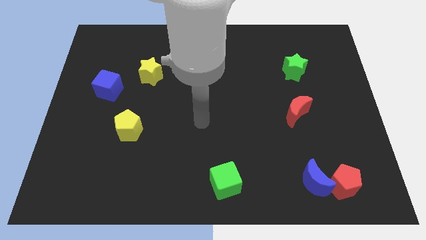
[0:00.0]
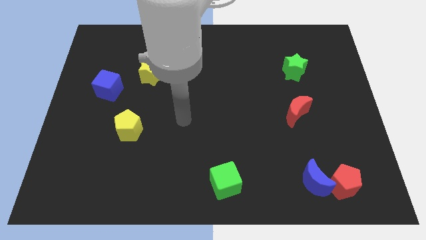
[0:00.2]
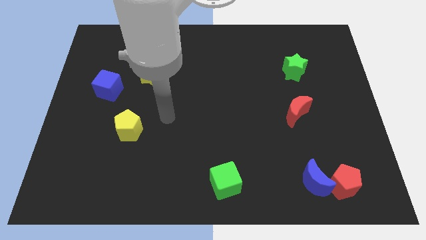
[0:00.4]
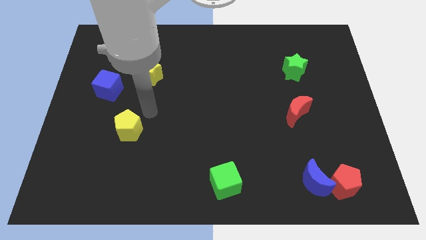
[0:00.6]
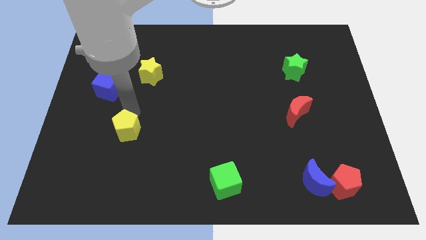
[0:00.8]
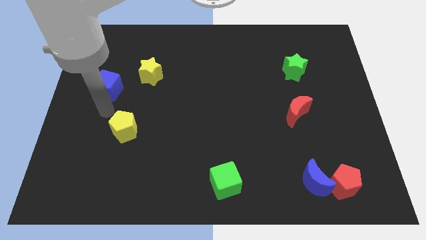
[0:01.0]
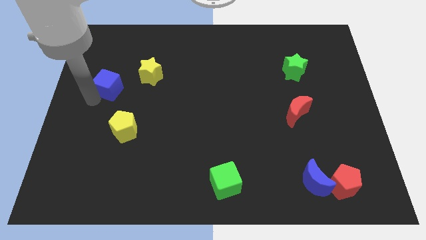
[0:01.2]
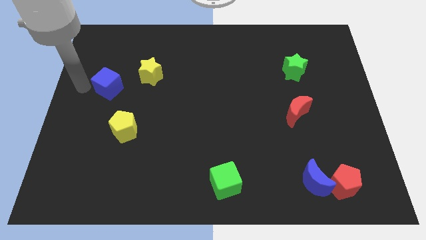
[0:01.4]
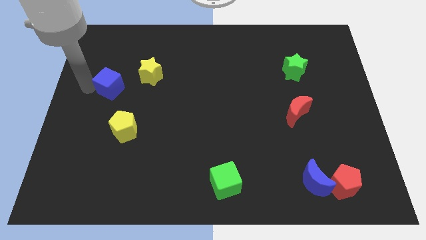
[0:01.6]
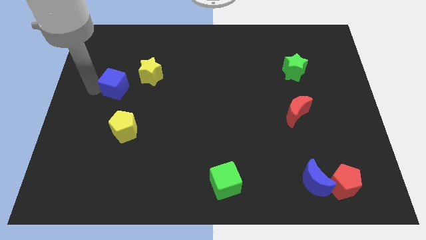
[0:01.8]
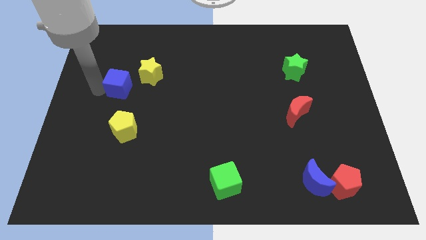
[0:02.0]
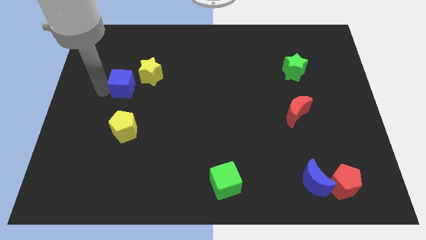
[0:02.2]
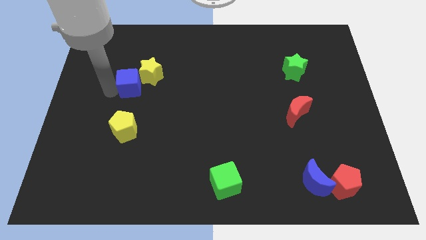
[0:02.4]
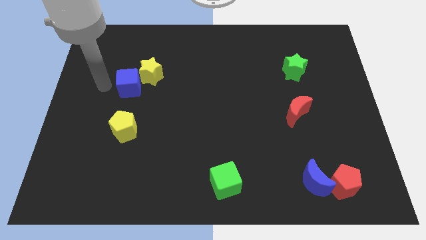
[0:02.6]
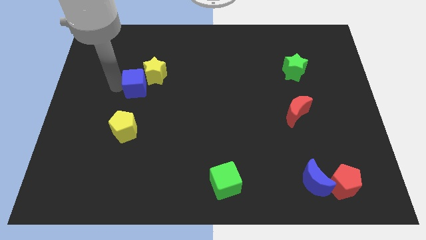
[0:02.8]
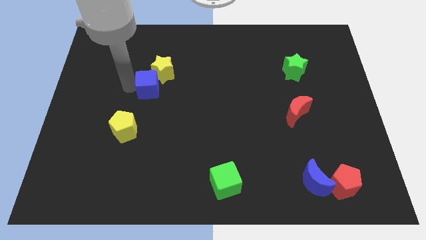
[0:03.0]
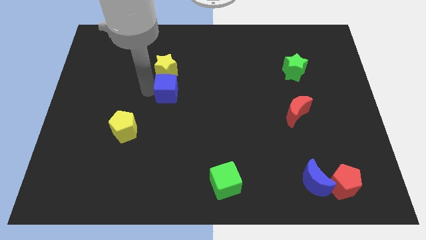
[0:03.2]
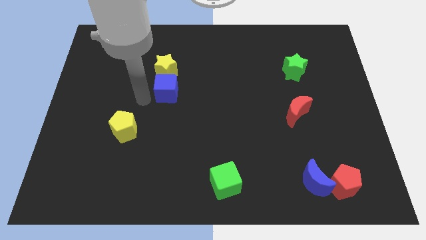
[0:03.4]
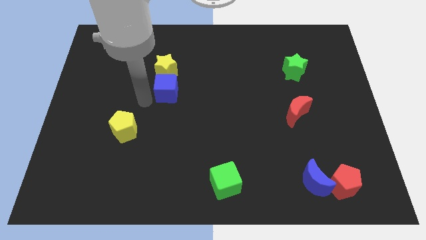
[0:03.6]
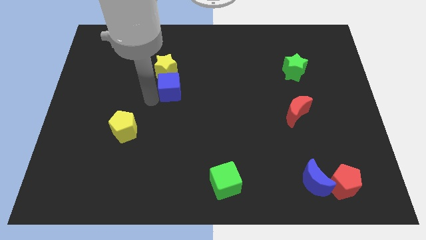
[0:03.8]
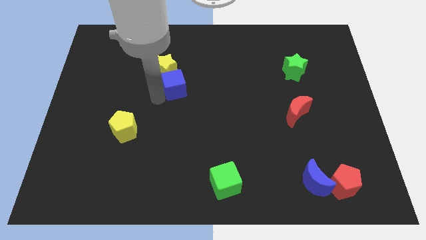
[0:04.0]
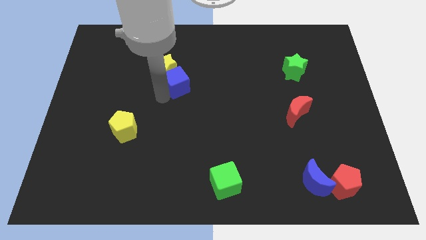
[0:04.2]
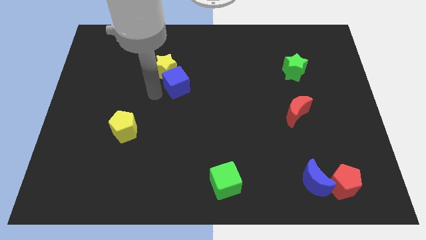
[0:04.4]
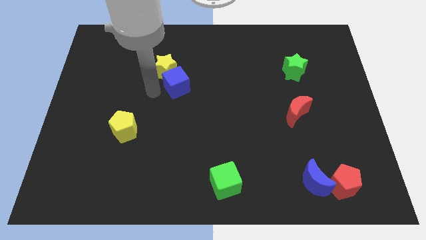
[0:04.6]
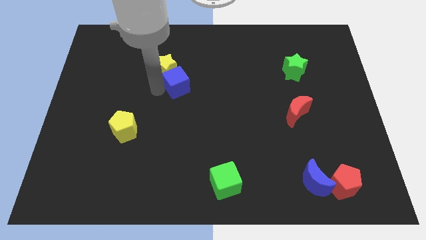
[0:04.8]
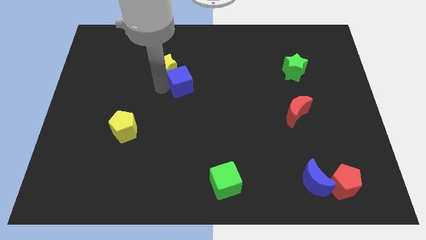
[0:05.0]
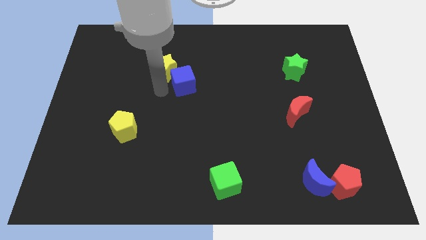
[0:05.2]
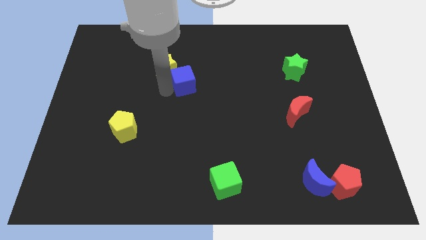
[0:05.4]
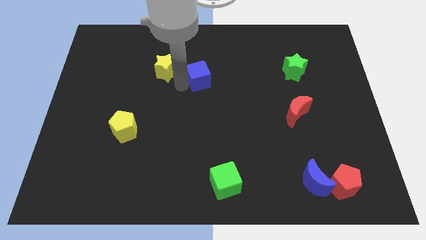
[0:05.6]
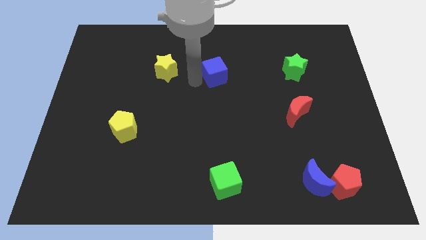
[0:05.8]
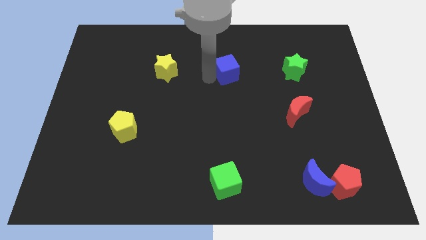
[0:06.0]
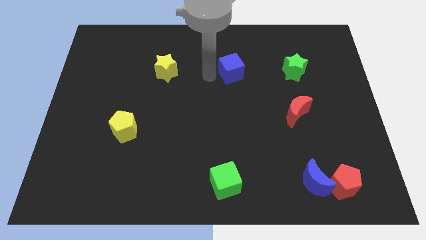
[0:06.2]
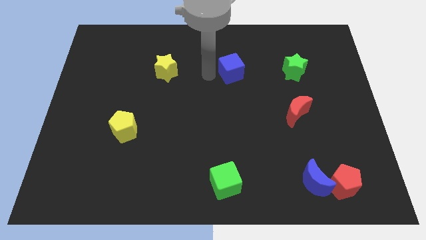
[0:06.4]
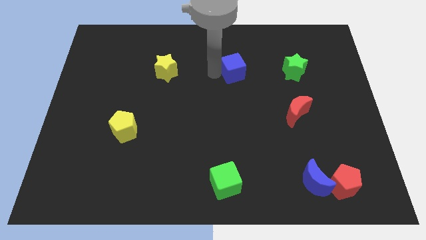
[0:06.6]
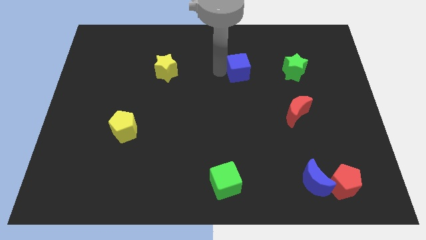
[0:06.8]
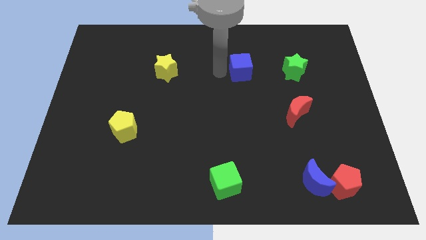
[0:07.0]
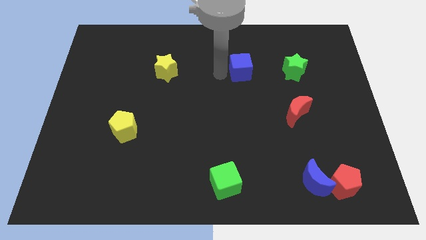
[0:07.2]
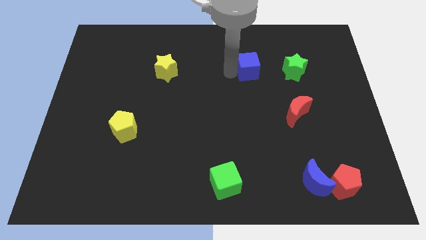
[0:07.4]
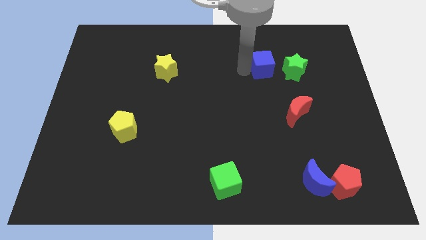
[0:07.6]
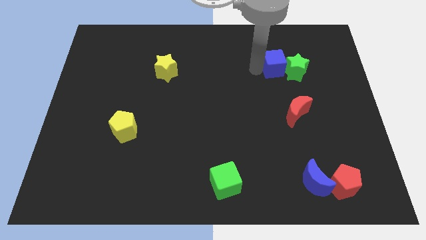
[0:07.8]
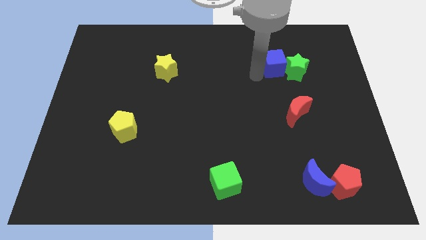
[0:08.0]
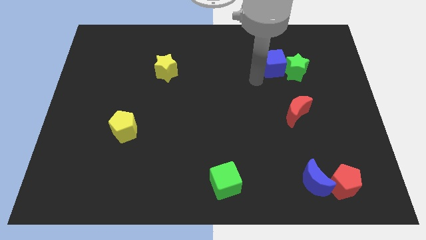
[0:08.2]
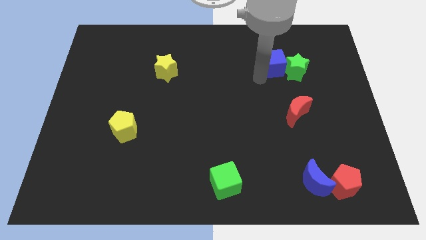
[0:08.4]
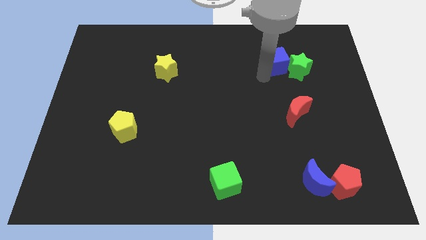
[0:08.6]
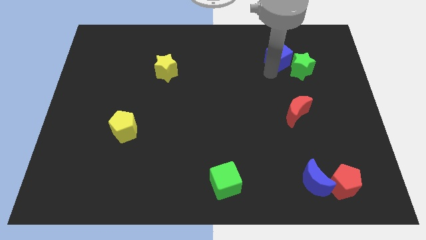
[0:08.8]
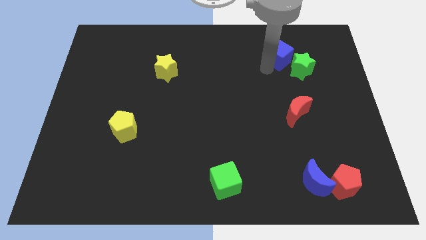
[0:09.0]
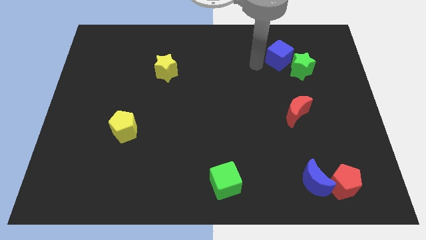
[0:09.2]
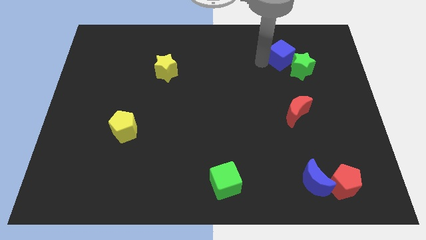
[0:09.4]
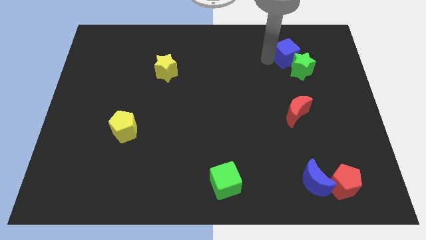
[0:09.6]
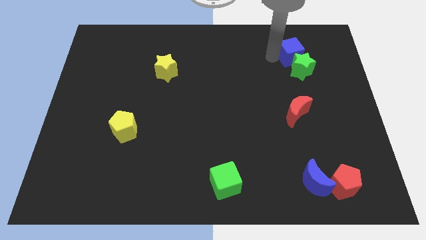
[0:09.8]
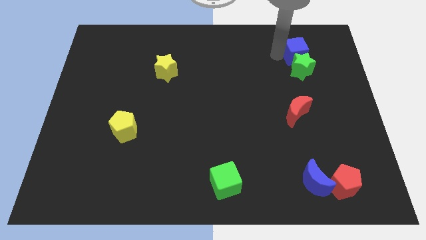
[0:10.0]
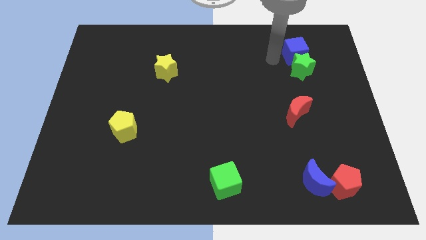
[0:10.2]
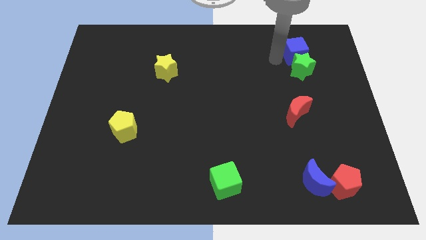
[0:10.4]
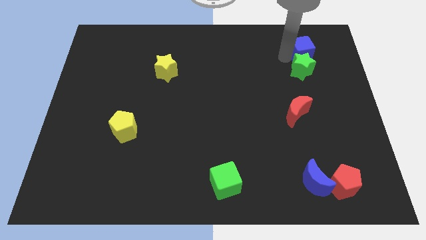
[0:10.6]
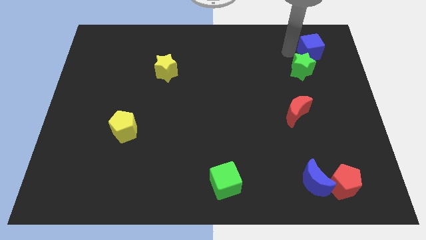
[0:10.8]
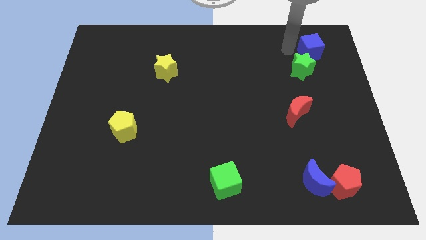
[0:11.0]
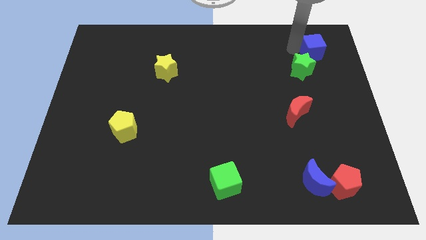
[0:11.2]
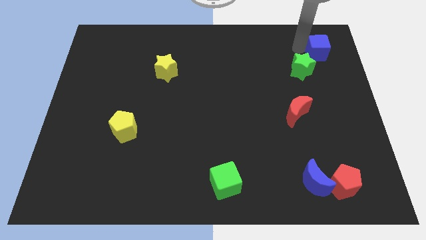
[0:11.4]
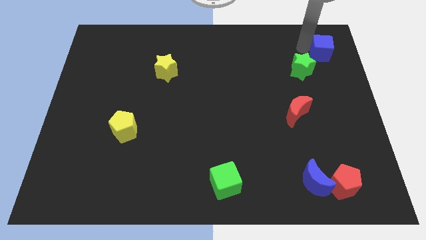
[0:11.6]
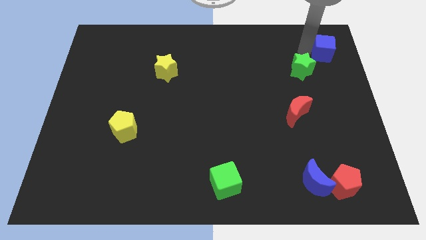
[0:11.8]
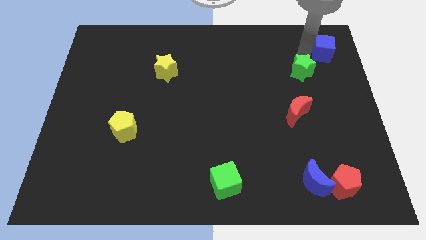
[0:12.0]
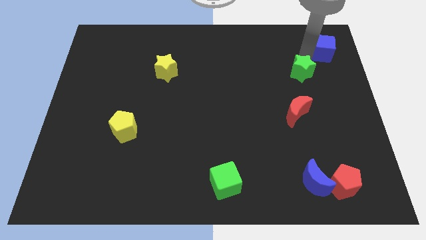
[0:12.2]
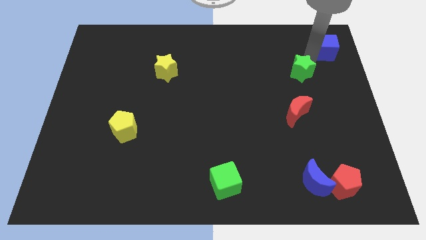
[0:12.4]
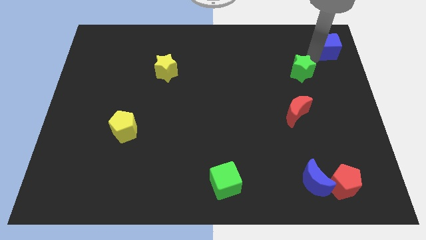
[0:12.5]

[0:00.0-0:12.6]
slide the blue cube to the upper right corner

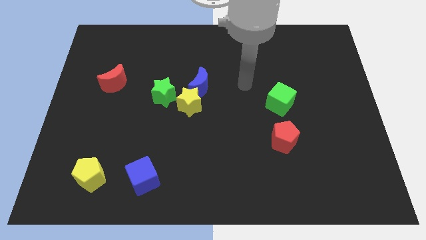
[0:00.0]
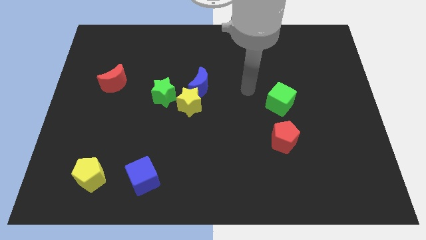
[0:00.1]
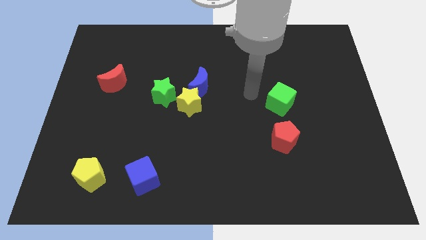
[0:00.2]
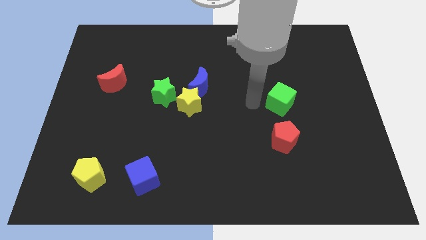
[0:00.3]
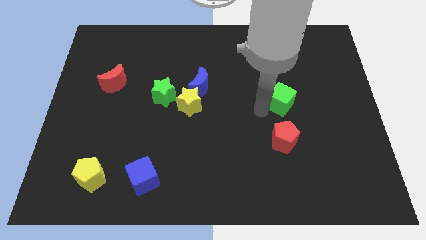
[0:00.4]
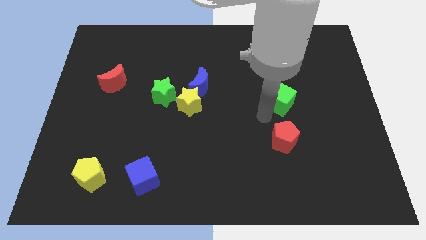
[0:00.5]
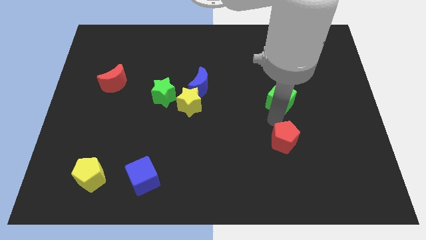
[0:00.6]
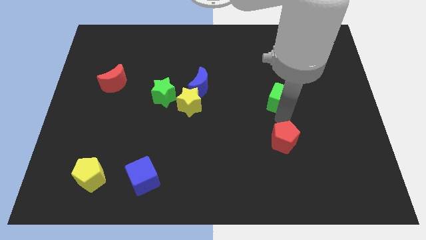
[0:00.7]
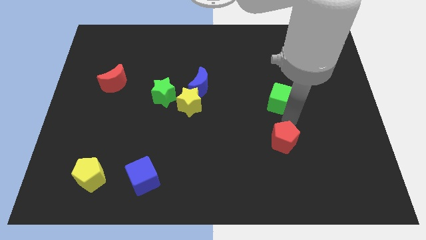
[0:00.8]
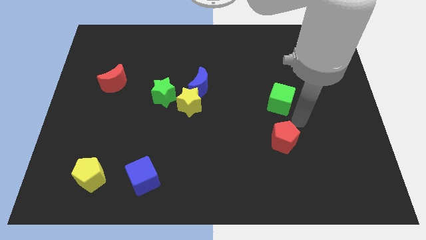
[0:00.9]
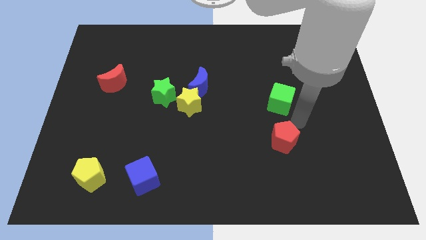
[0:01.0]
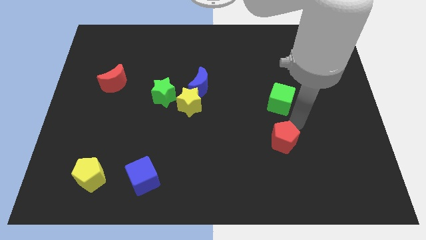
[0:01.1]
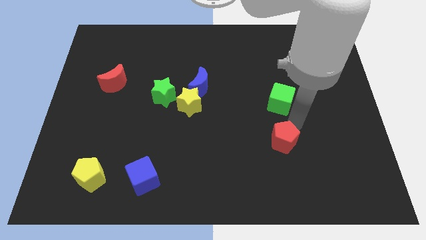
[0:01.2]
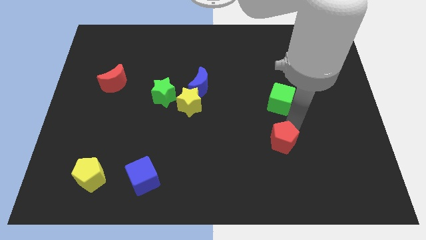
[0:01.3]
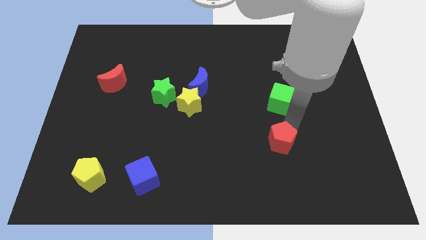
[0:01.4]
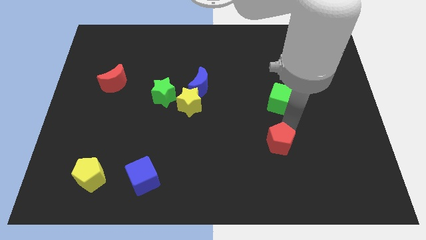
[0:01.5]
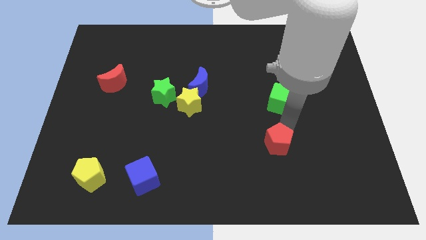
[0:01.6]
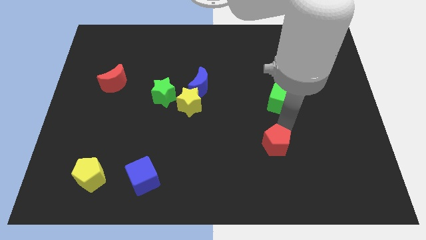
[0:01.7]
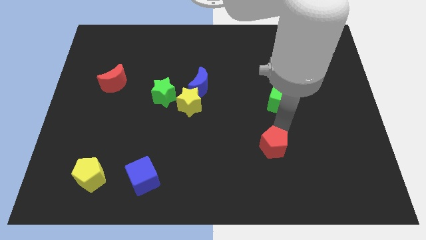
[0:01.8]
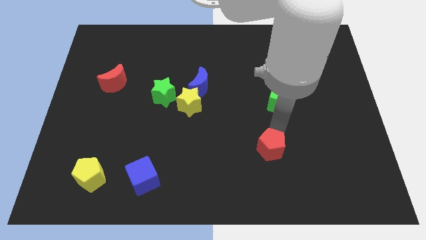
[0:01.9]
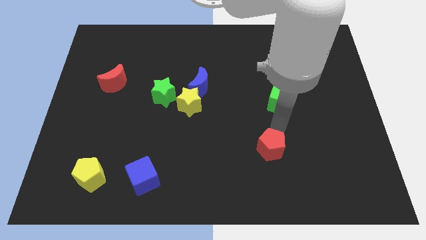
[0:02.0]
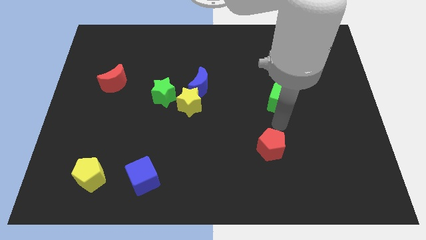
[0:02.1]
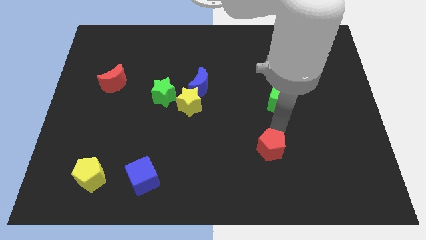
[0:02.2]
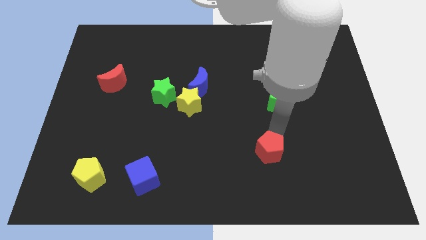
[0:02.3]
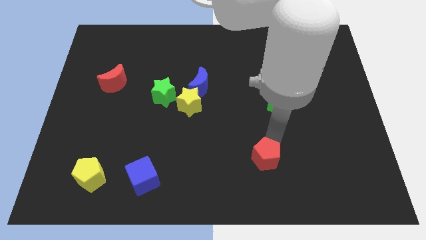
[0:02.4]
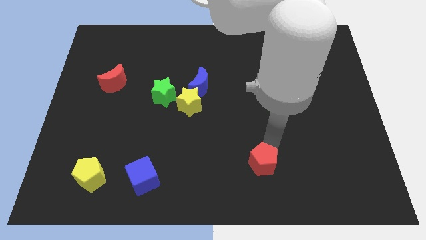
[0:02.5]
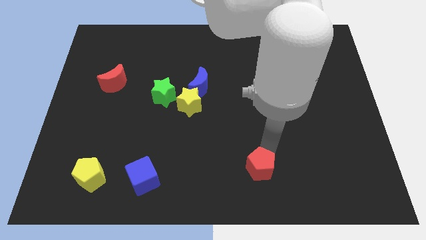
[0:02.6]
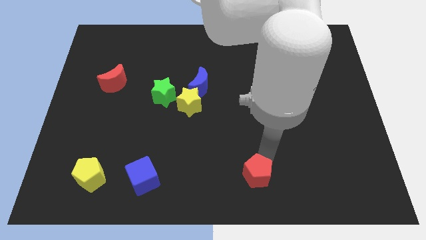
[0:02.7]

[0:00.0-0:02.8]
slide the red pentagon to the bottom
